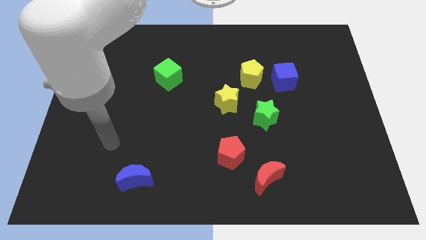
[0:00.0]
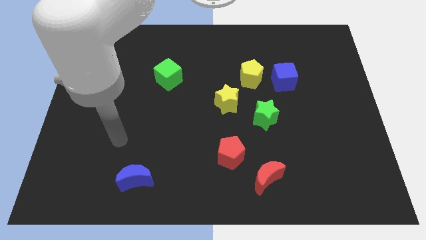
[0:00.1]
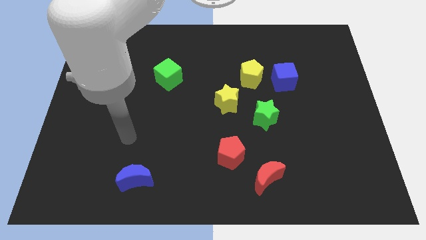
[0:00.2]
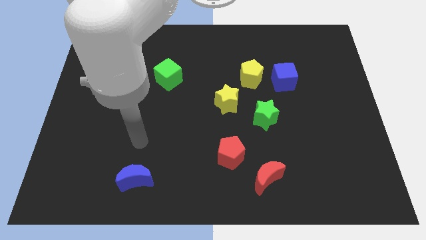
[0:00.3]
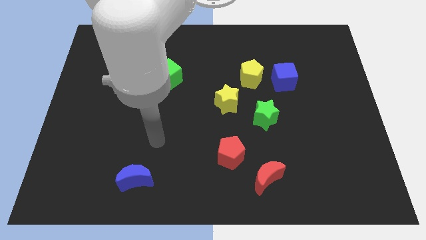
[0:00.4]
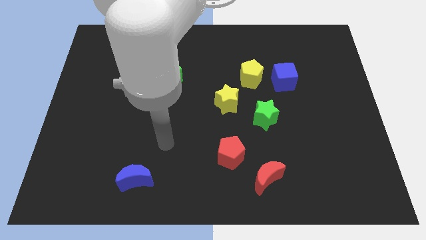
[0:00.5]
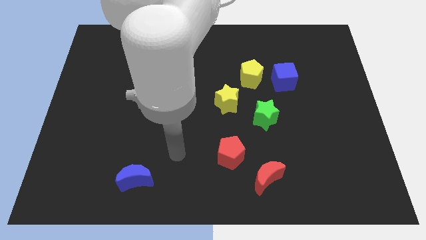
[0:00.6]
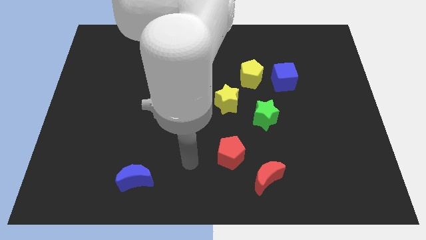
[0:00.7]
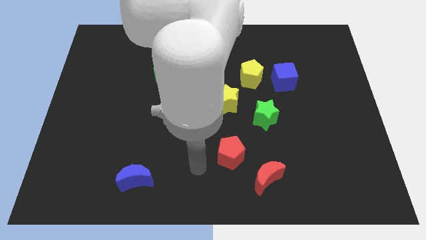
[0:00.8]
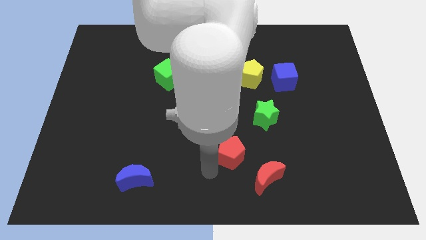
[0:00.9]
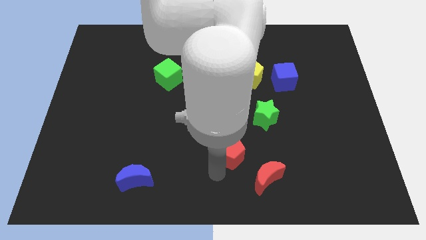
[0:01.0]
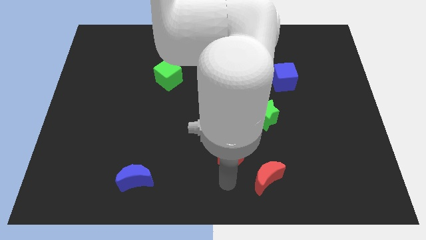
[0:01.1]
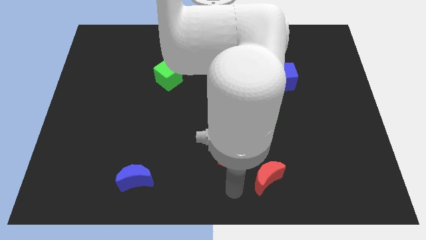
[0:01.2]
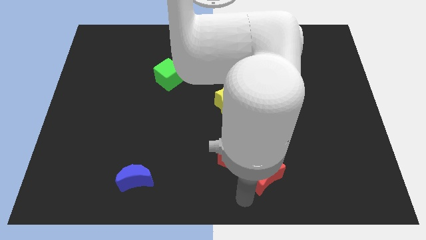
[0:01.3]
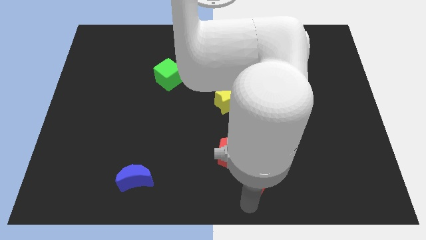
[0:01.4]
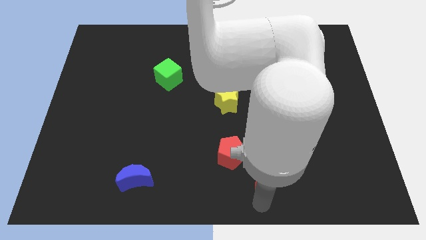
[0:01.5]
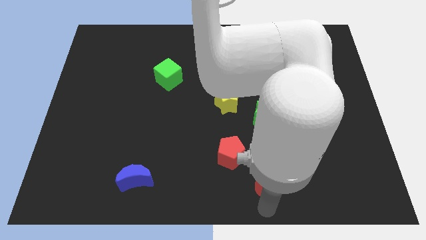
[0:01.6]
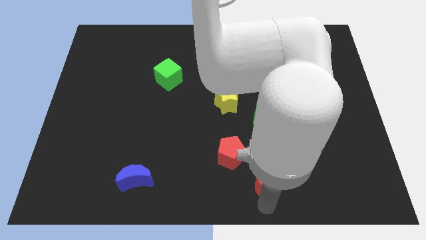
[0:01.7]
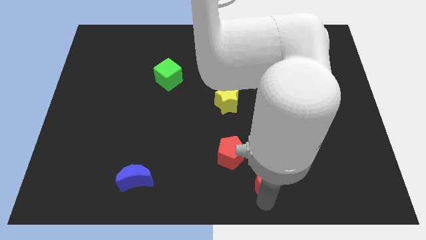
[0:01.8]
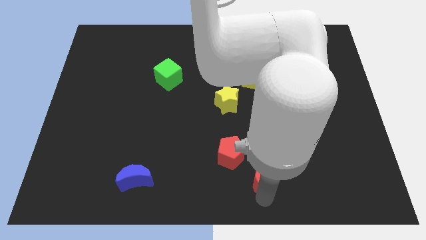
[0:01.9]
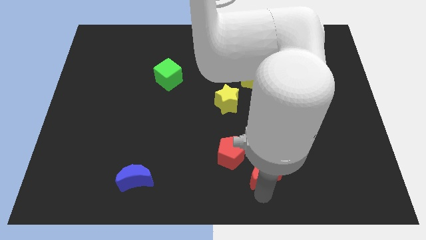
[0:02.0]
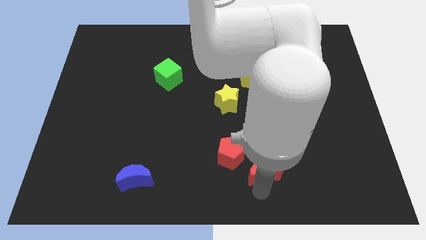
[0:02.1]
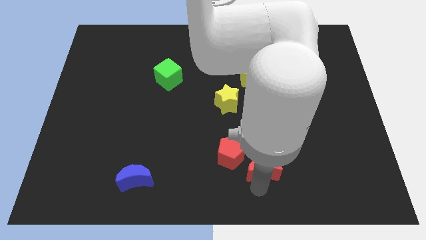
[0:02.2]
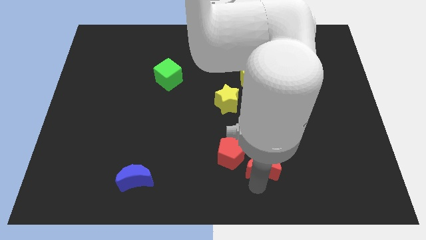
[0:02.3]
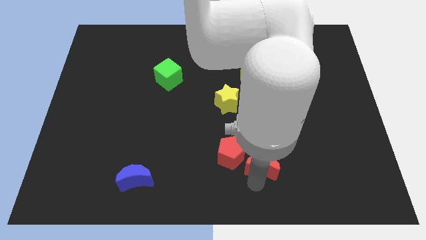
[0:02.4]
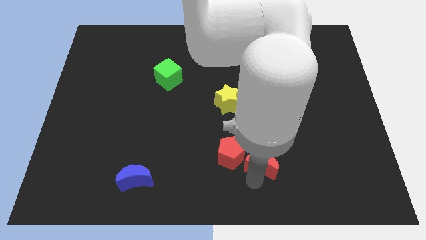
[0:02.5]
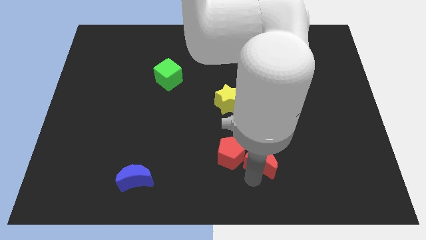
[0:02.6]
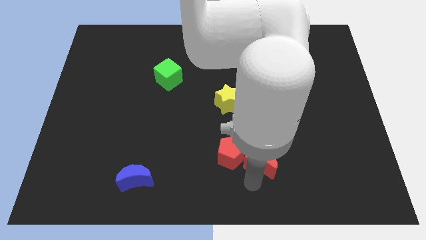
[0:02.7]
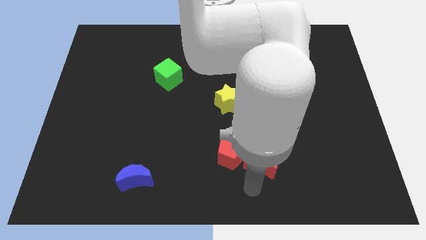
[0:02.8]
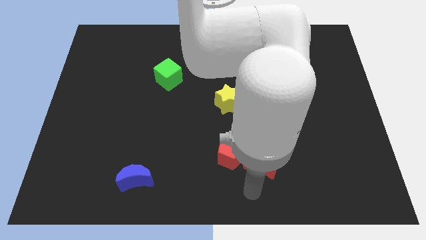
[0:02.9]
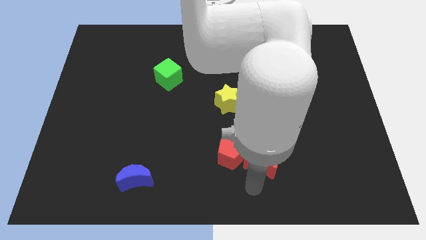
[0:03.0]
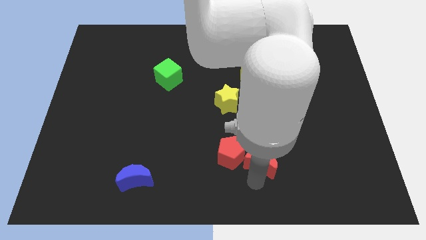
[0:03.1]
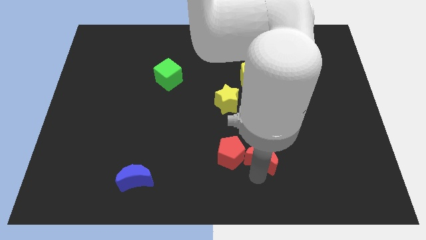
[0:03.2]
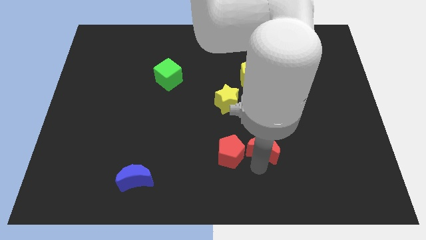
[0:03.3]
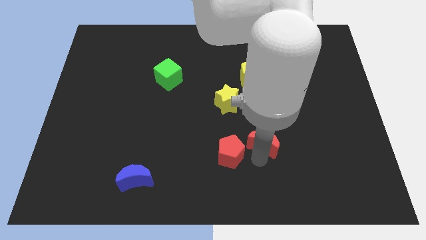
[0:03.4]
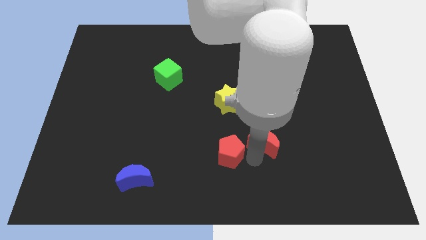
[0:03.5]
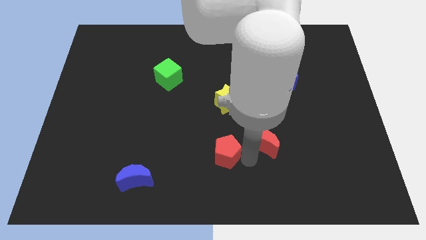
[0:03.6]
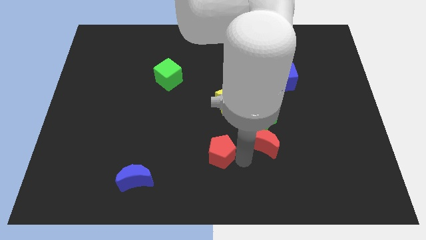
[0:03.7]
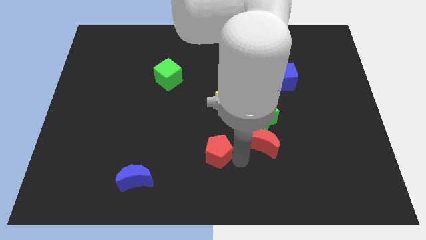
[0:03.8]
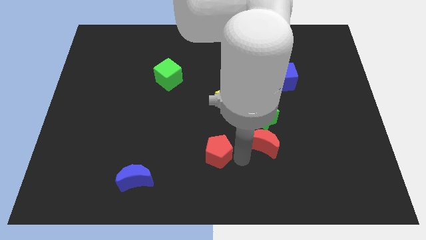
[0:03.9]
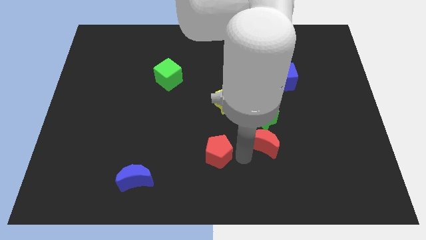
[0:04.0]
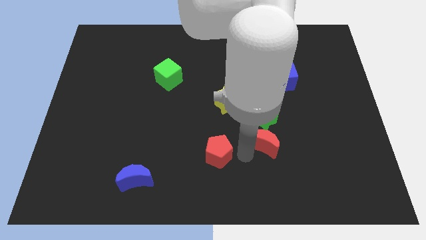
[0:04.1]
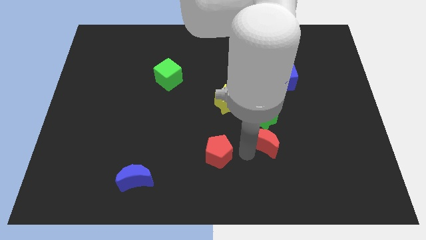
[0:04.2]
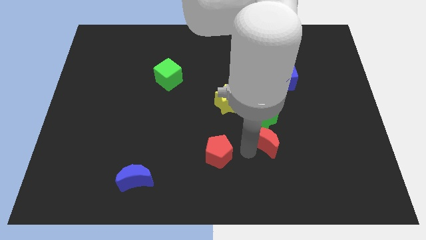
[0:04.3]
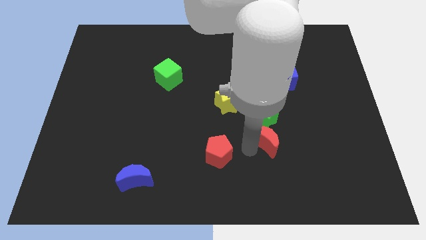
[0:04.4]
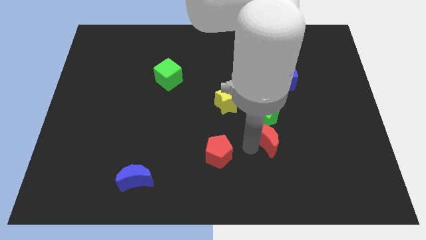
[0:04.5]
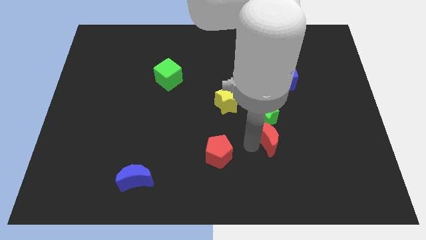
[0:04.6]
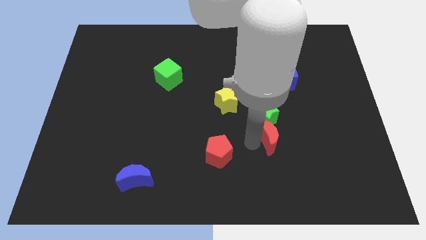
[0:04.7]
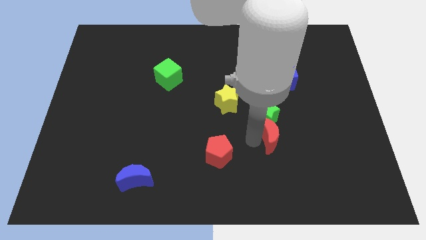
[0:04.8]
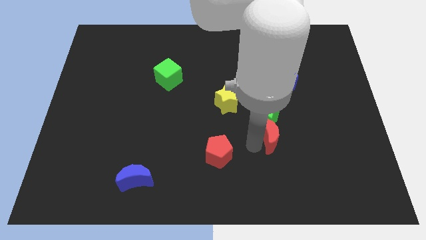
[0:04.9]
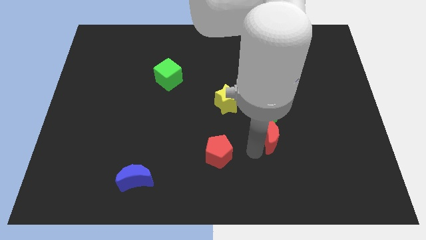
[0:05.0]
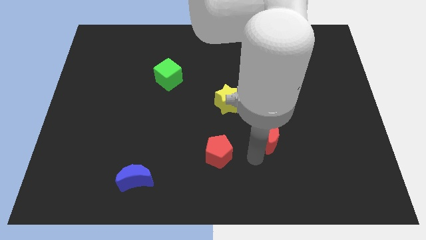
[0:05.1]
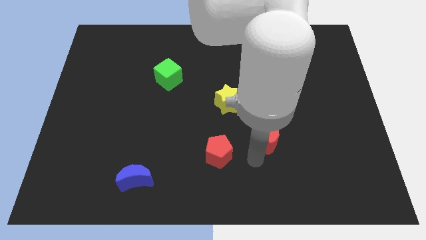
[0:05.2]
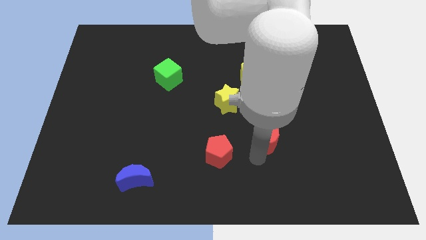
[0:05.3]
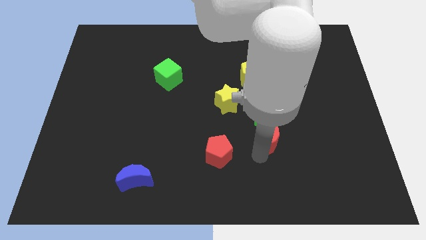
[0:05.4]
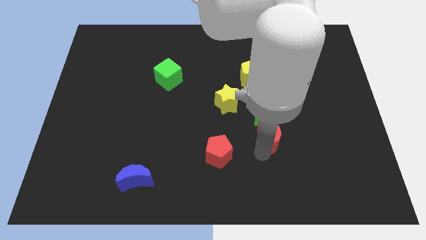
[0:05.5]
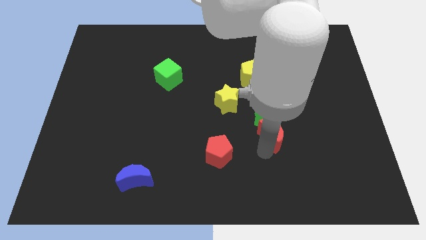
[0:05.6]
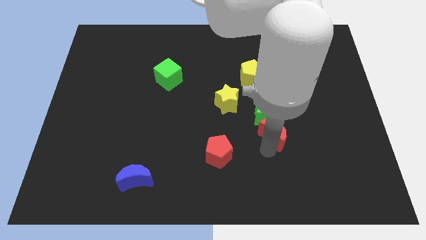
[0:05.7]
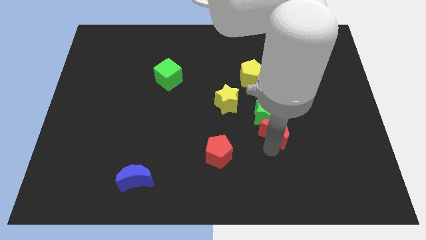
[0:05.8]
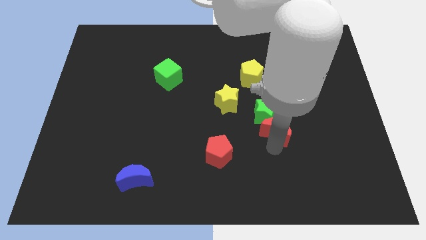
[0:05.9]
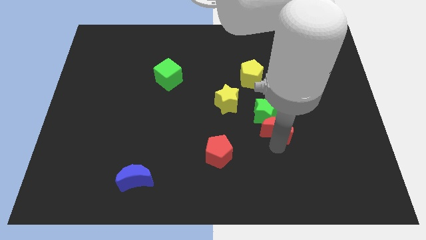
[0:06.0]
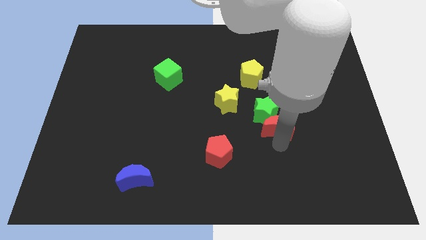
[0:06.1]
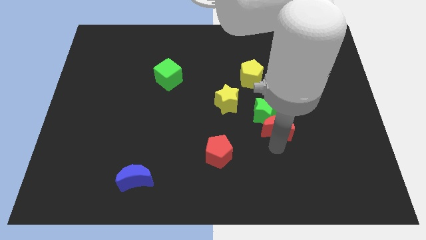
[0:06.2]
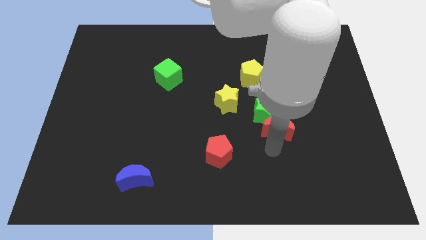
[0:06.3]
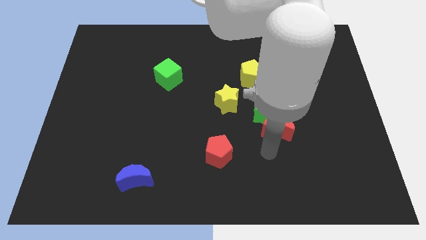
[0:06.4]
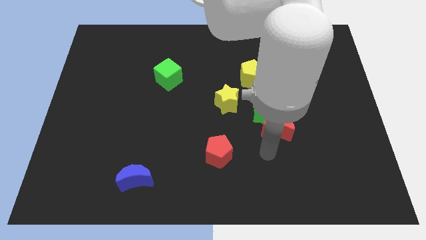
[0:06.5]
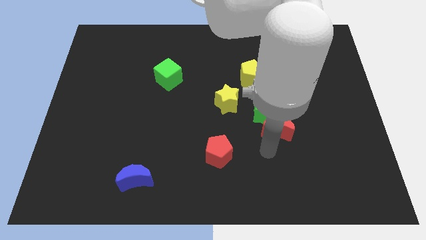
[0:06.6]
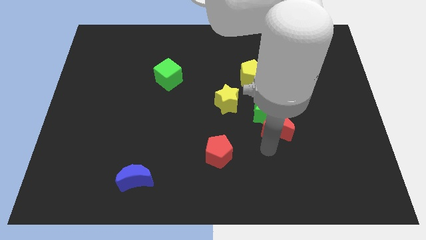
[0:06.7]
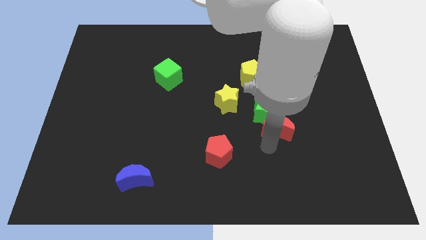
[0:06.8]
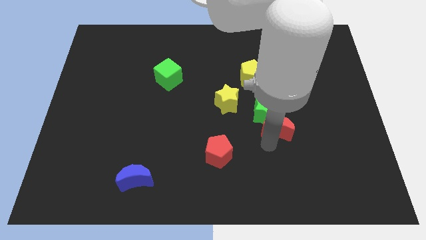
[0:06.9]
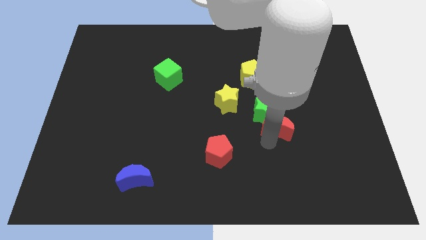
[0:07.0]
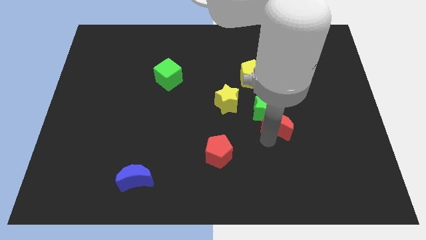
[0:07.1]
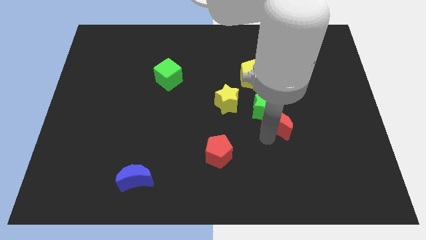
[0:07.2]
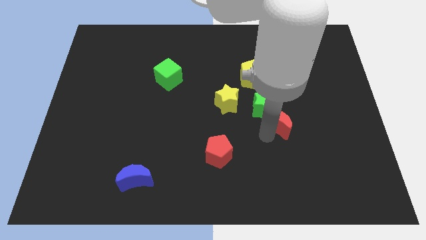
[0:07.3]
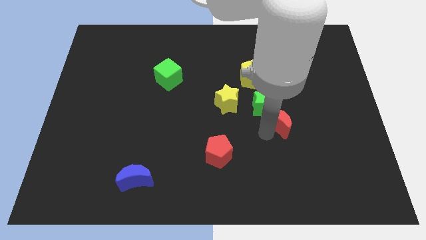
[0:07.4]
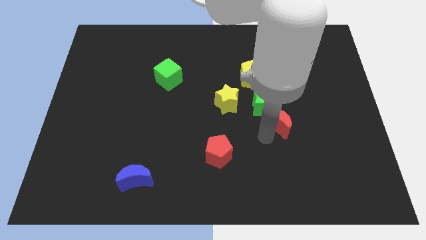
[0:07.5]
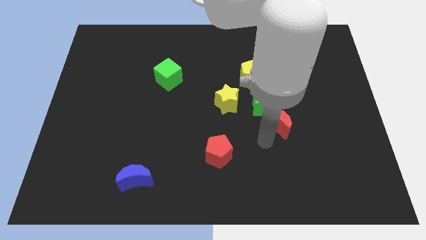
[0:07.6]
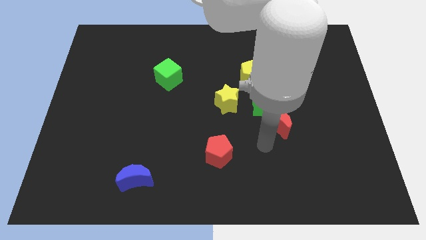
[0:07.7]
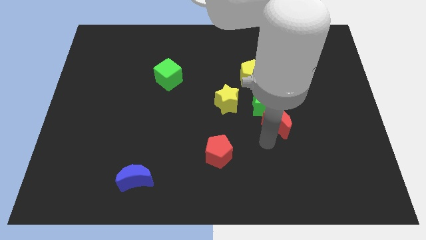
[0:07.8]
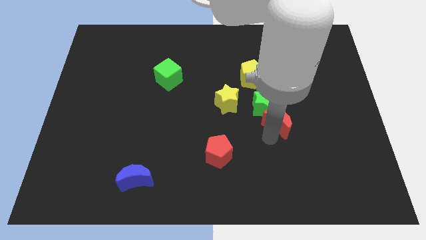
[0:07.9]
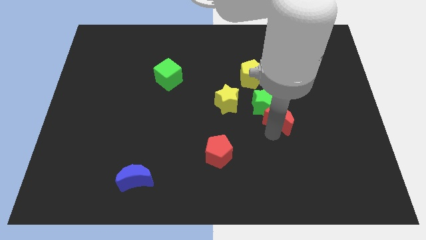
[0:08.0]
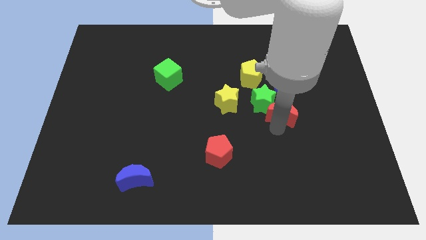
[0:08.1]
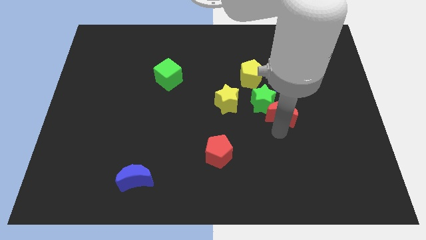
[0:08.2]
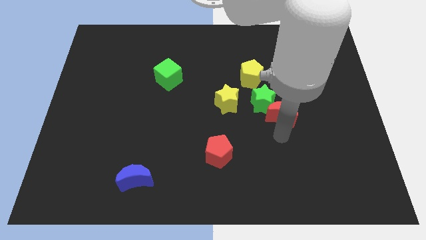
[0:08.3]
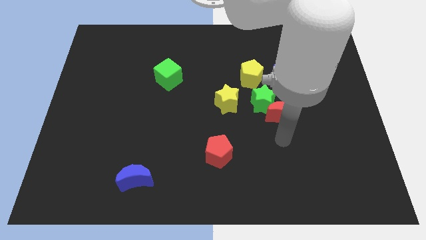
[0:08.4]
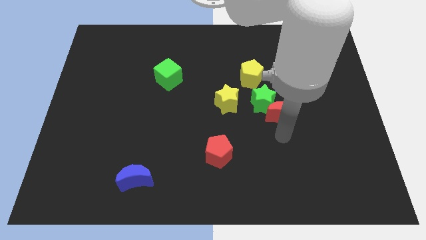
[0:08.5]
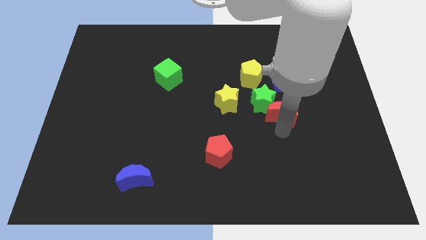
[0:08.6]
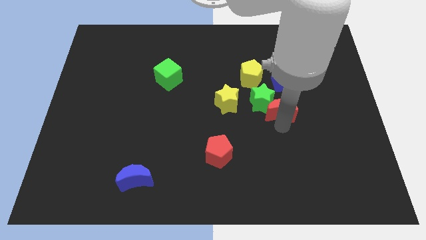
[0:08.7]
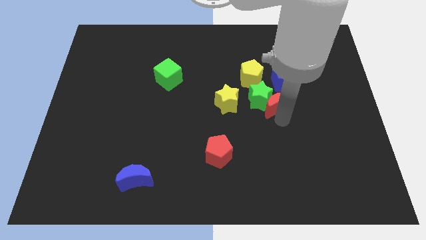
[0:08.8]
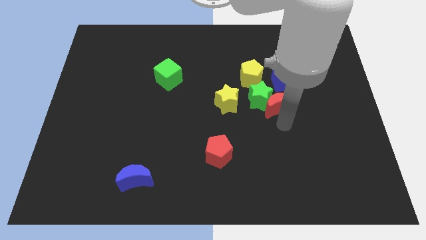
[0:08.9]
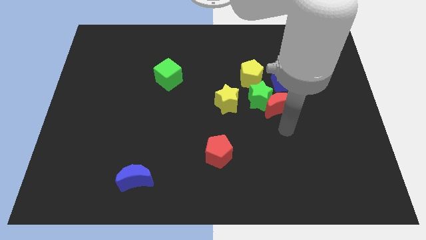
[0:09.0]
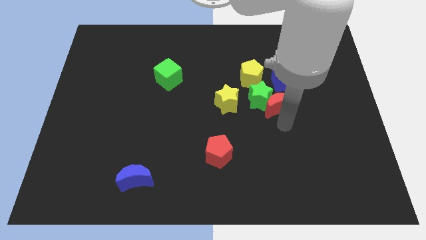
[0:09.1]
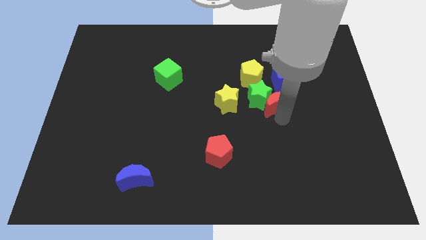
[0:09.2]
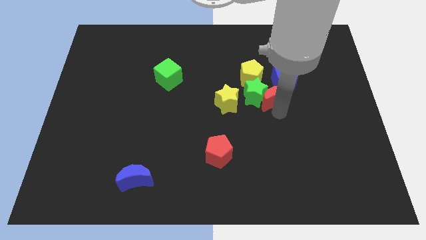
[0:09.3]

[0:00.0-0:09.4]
push the red moon upwards
